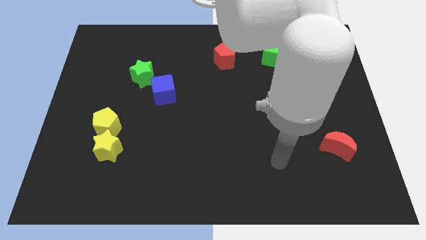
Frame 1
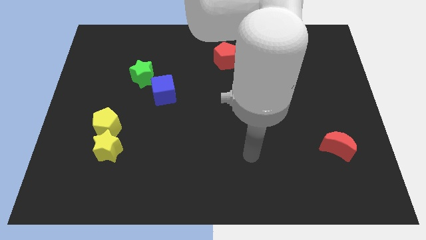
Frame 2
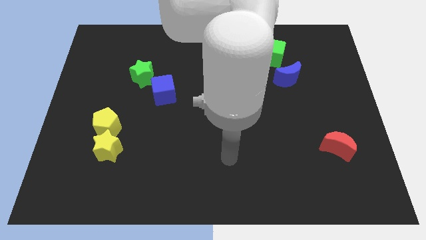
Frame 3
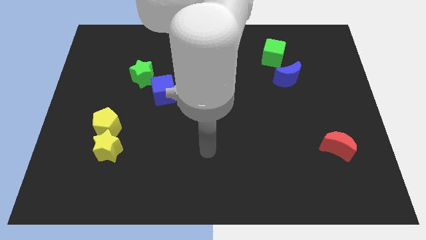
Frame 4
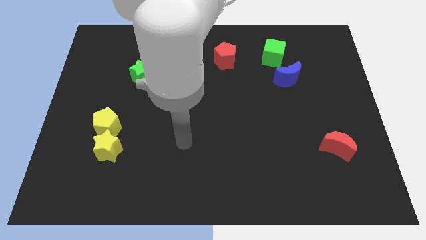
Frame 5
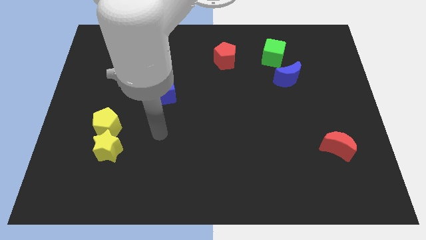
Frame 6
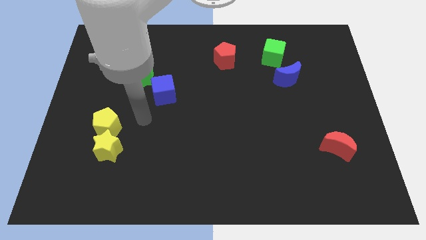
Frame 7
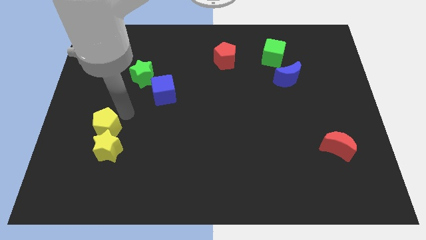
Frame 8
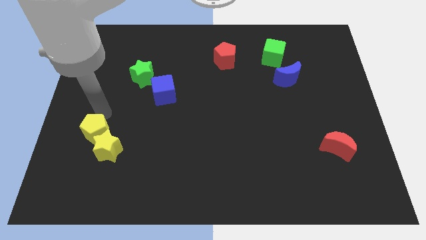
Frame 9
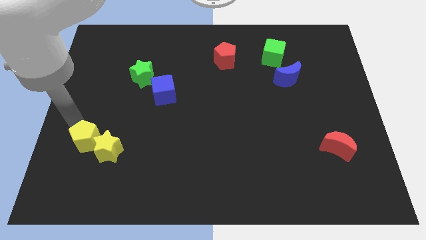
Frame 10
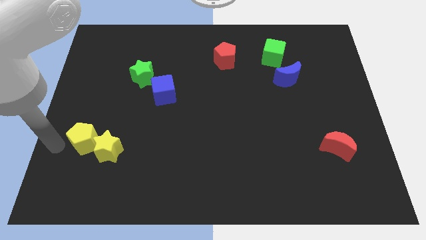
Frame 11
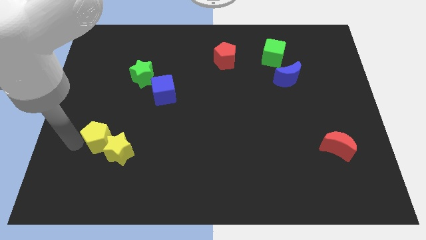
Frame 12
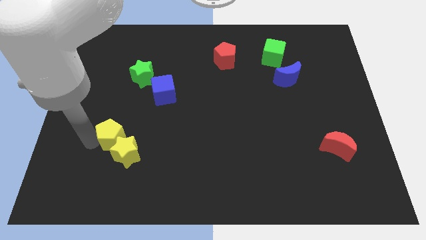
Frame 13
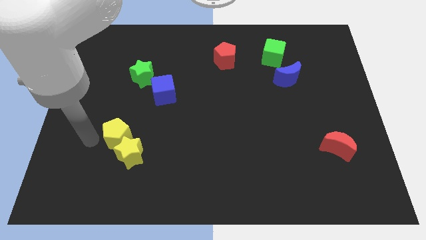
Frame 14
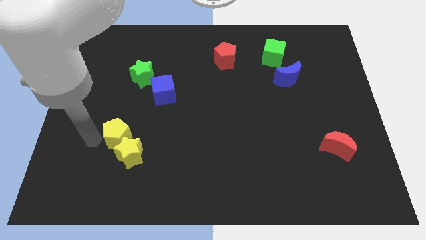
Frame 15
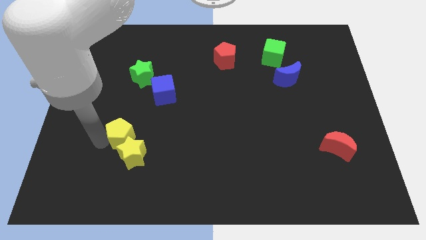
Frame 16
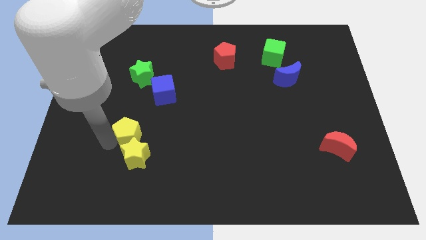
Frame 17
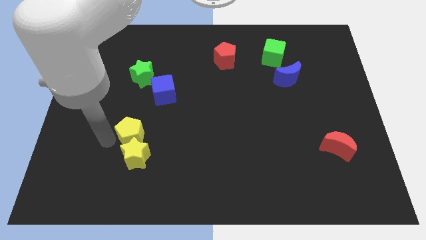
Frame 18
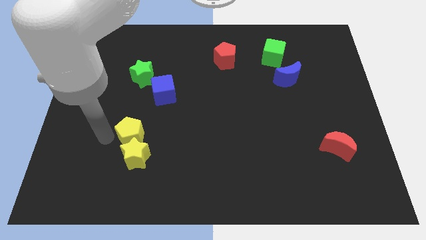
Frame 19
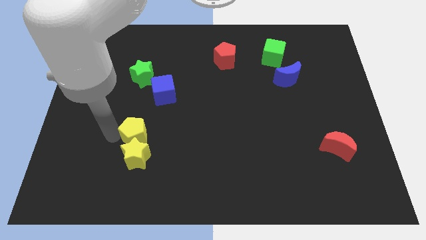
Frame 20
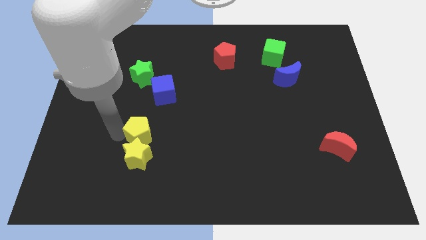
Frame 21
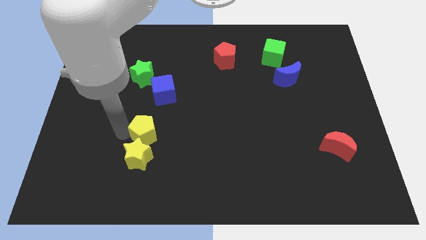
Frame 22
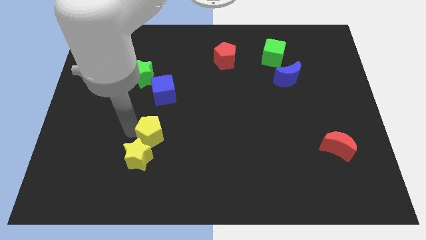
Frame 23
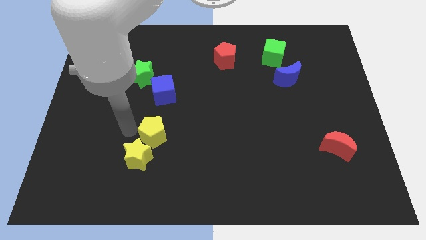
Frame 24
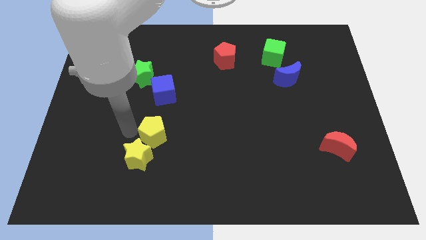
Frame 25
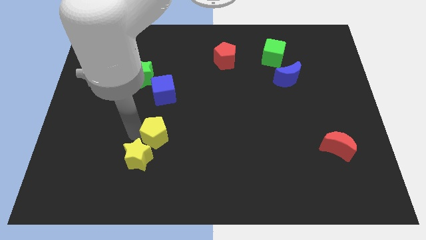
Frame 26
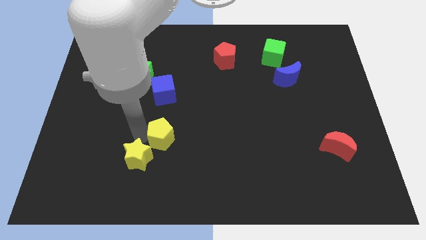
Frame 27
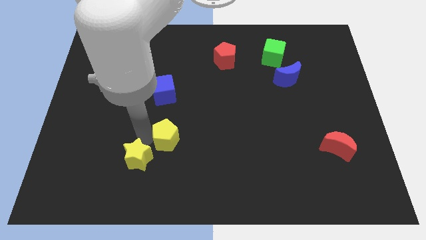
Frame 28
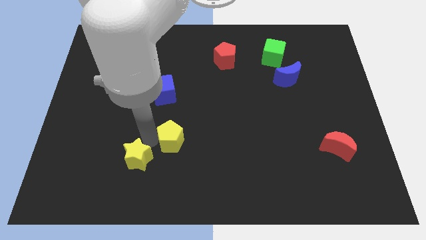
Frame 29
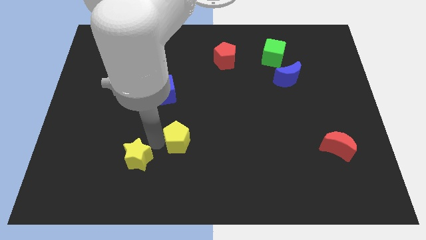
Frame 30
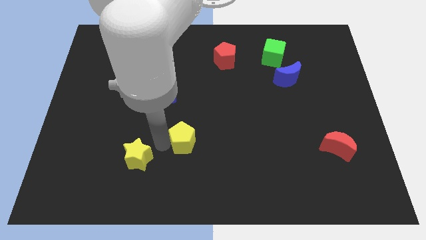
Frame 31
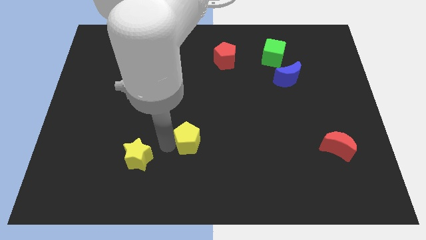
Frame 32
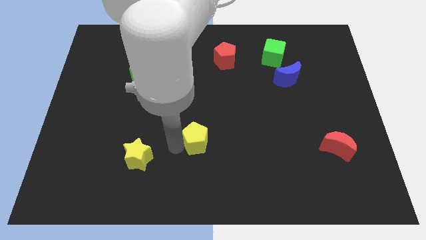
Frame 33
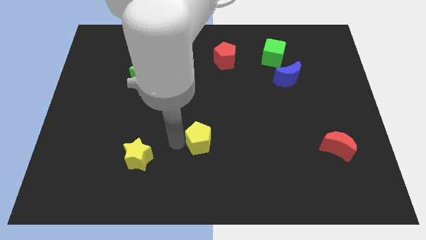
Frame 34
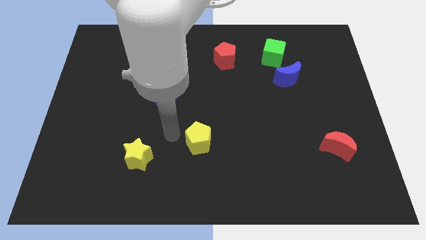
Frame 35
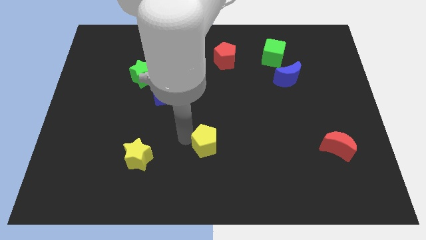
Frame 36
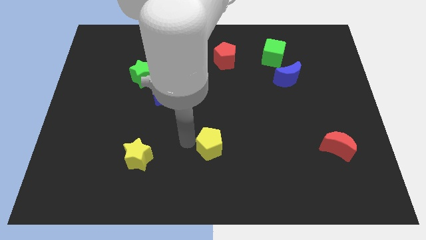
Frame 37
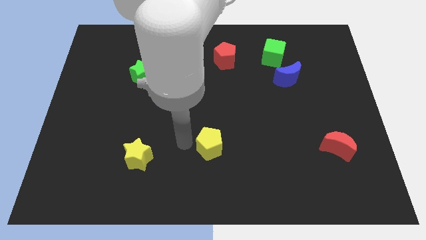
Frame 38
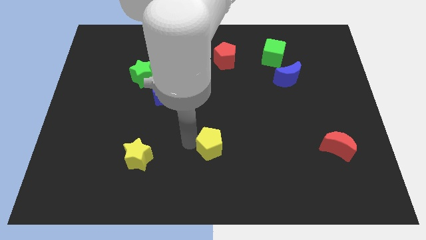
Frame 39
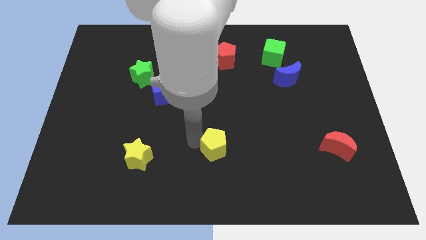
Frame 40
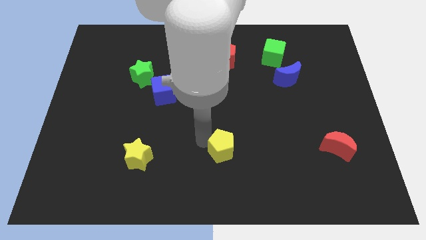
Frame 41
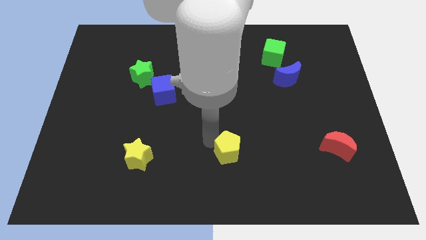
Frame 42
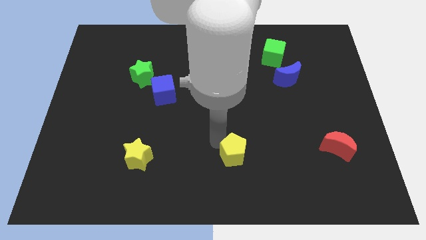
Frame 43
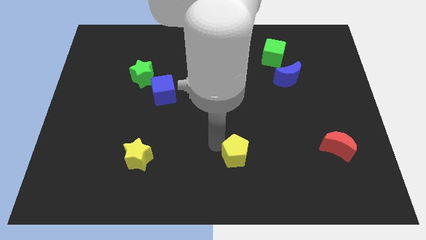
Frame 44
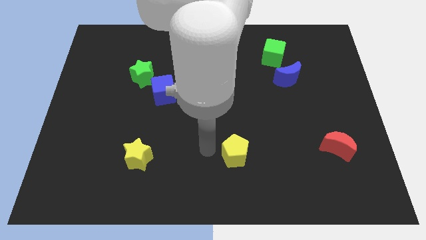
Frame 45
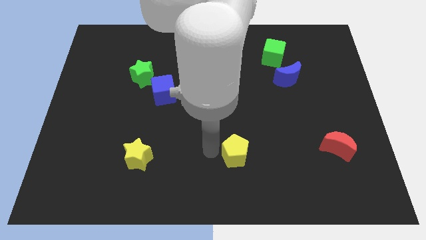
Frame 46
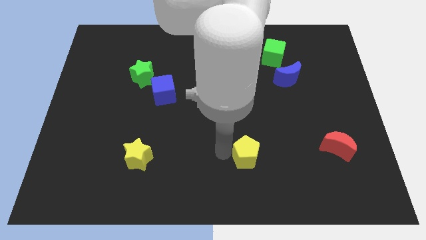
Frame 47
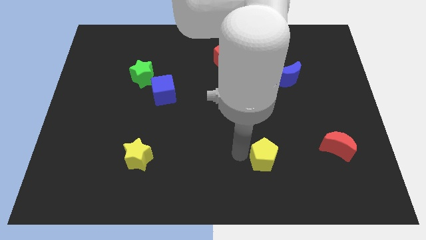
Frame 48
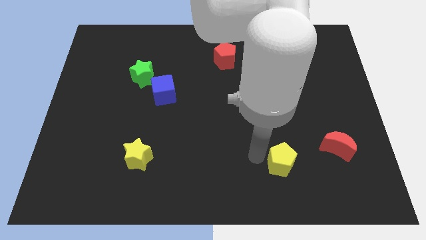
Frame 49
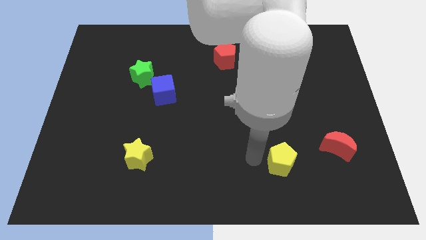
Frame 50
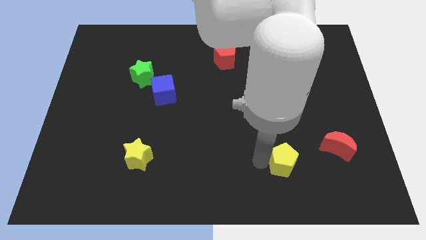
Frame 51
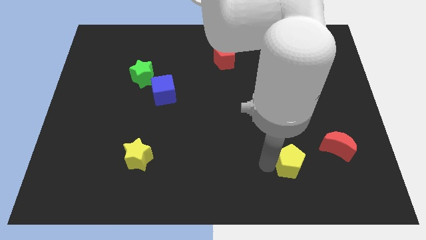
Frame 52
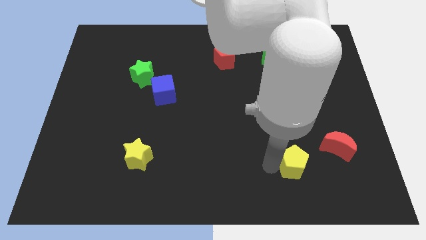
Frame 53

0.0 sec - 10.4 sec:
slide the yellow pentagon to the bottom left of the red moon

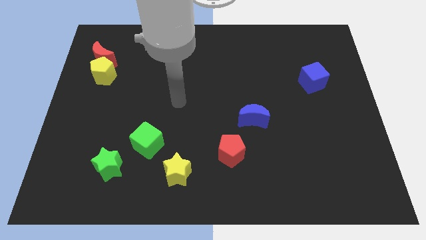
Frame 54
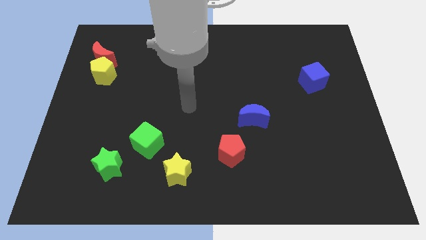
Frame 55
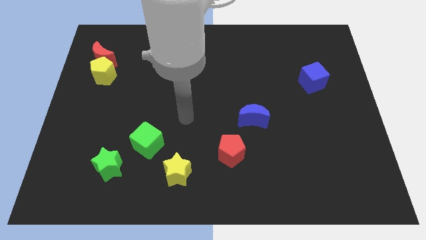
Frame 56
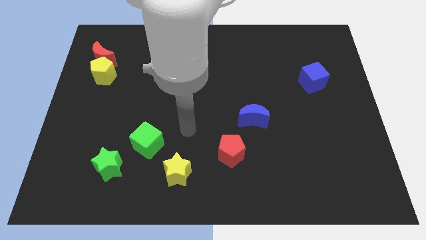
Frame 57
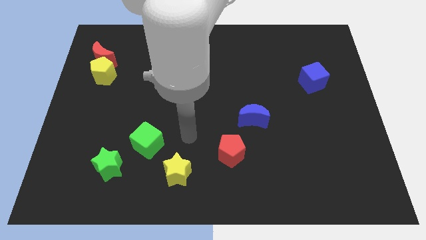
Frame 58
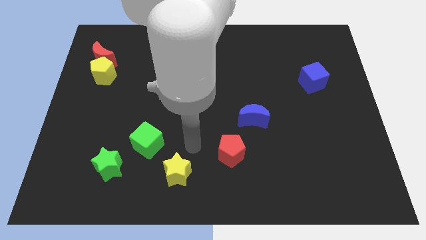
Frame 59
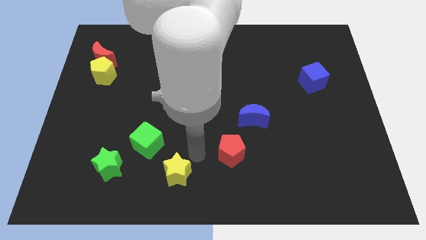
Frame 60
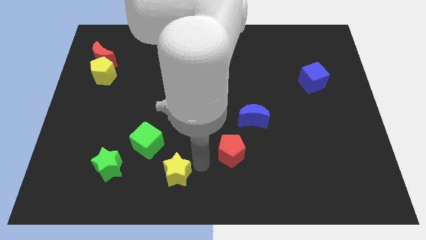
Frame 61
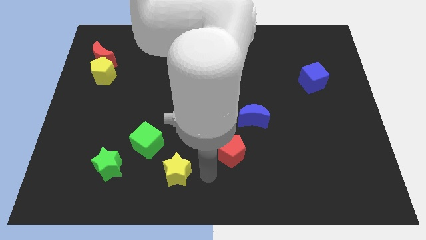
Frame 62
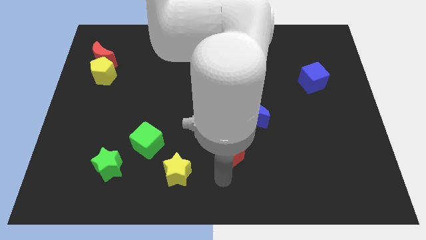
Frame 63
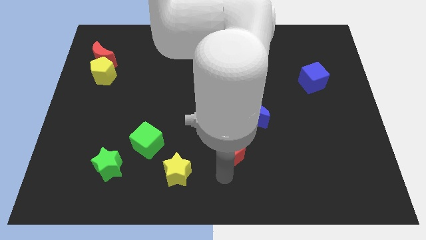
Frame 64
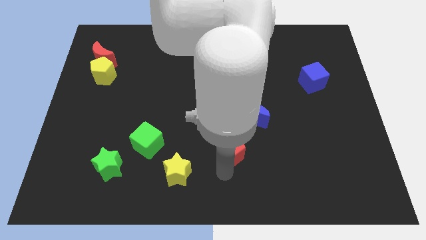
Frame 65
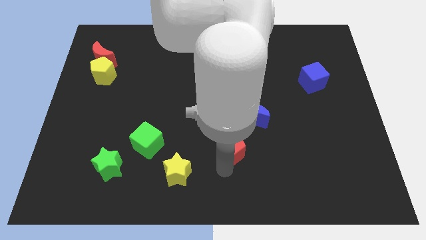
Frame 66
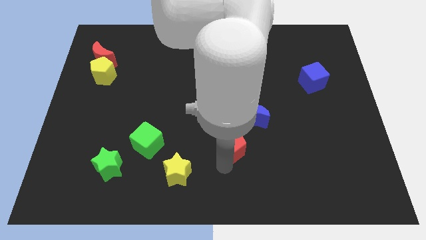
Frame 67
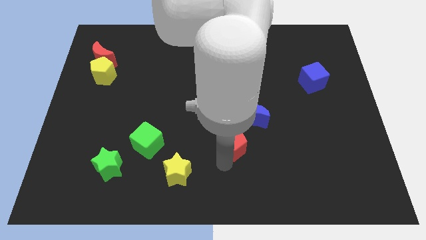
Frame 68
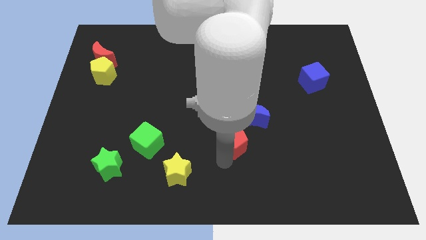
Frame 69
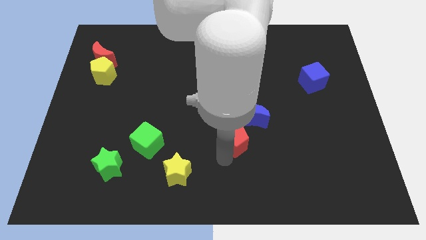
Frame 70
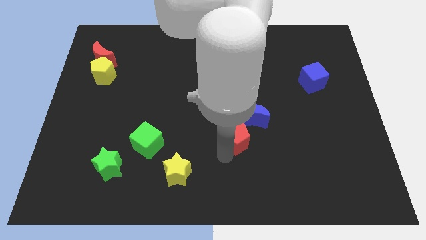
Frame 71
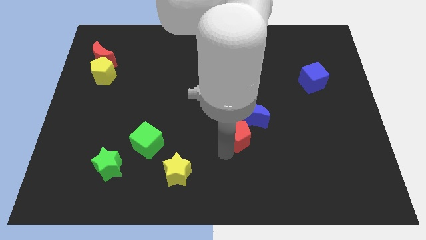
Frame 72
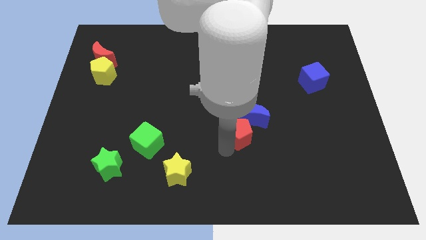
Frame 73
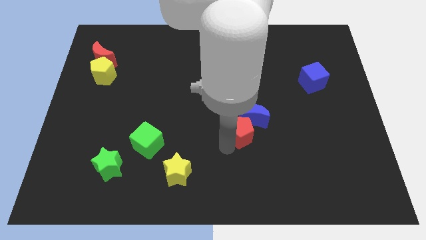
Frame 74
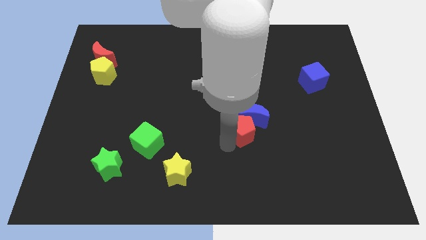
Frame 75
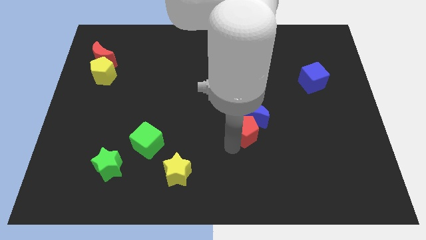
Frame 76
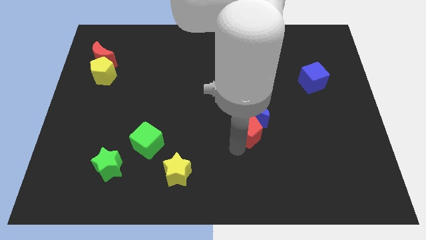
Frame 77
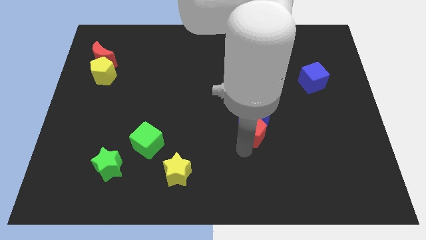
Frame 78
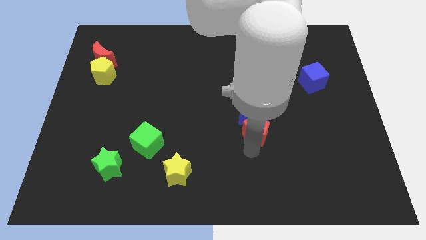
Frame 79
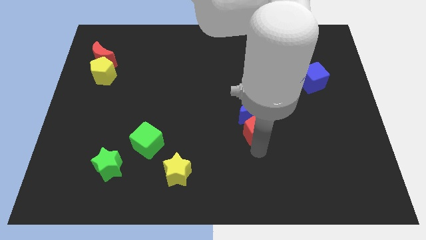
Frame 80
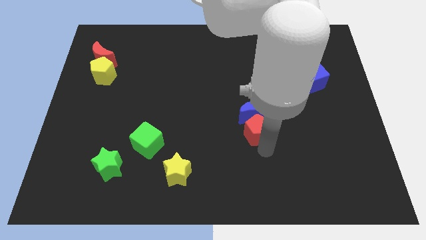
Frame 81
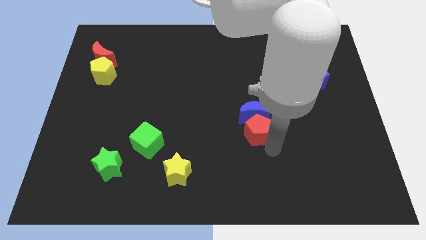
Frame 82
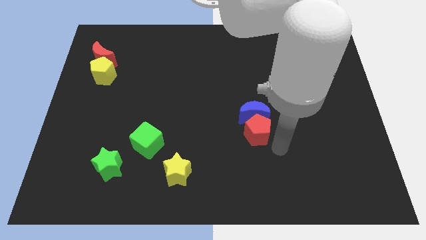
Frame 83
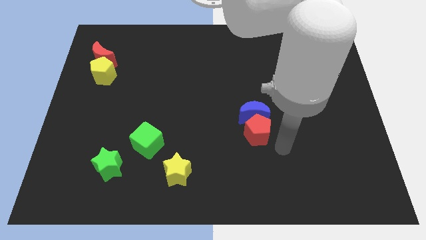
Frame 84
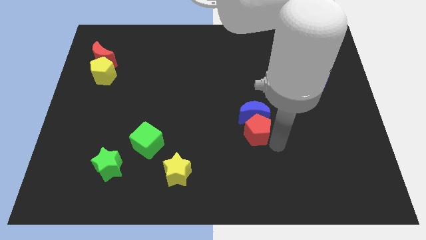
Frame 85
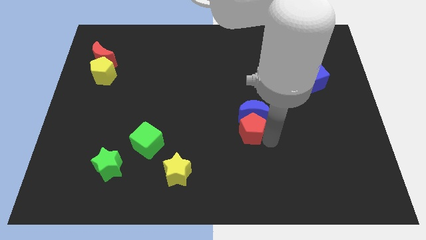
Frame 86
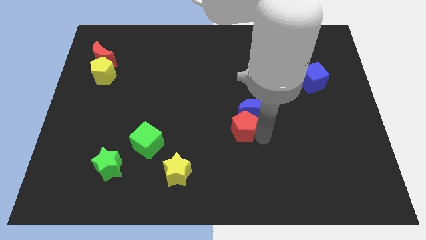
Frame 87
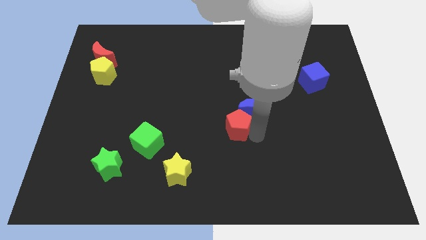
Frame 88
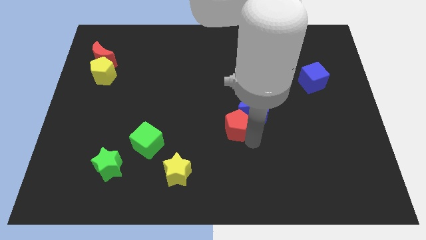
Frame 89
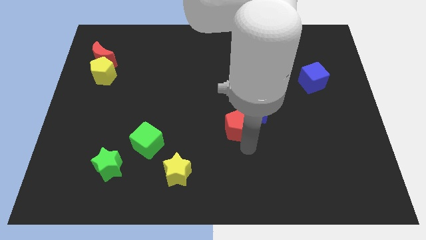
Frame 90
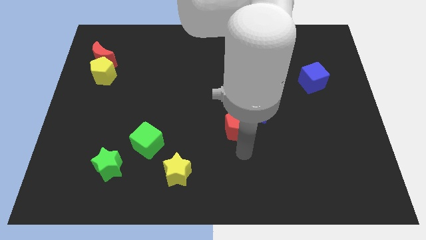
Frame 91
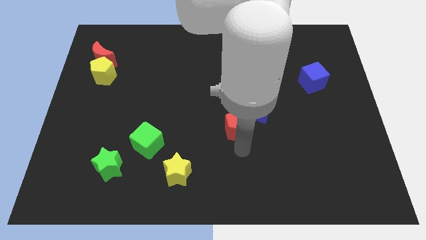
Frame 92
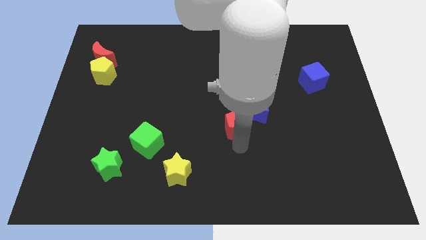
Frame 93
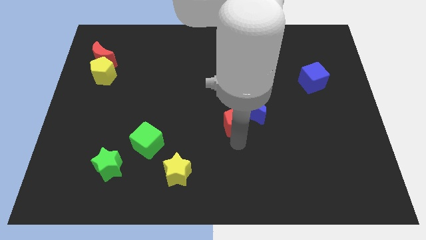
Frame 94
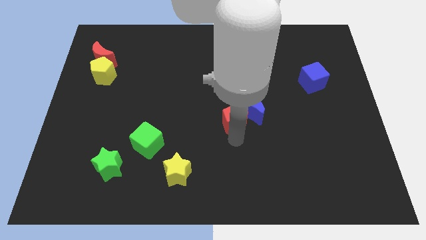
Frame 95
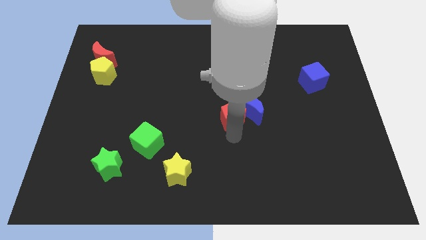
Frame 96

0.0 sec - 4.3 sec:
push the red pentagon to the top left of the blue moon
